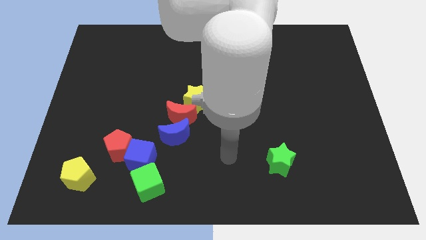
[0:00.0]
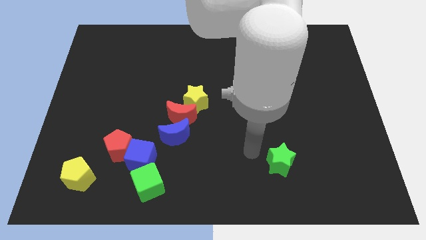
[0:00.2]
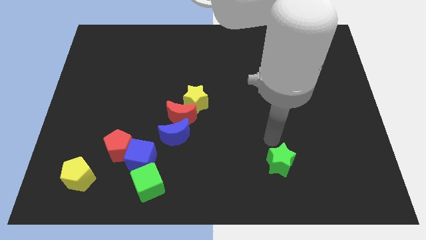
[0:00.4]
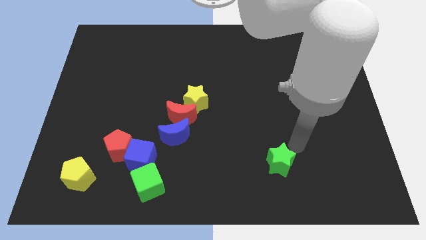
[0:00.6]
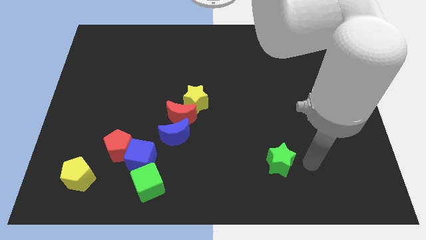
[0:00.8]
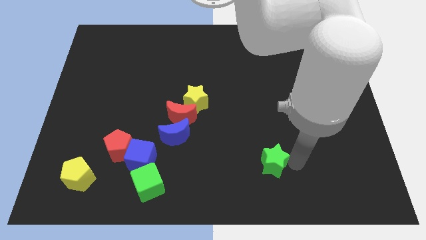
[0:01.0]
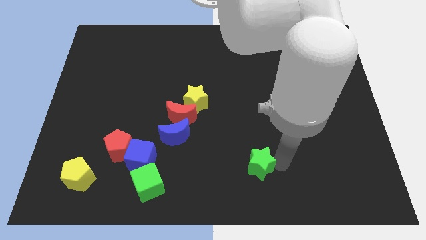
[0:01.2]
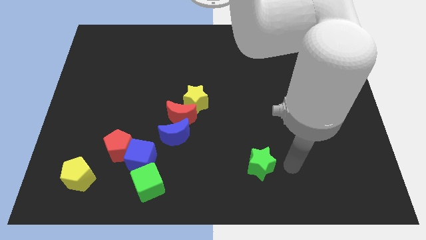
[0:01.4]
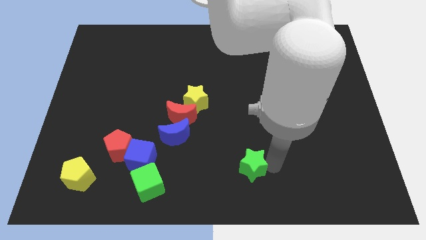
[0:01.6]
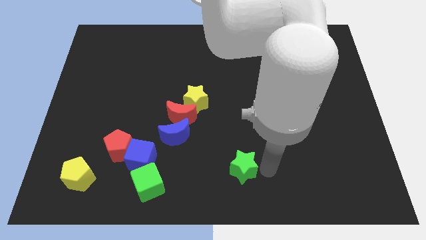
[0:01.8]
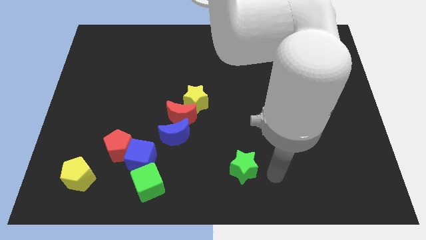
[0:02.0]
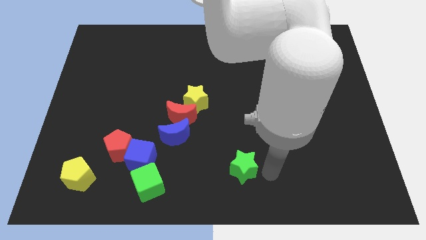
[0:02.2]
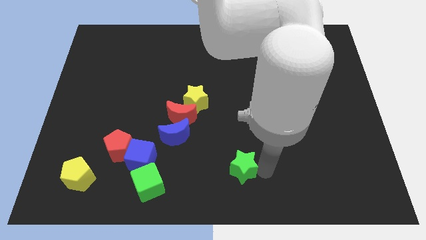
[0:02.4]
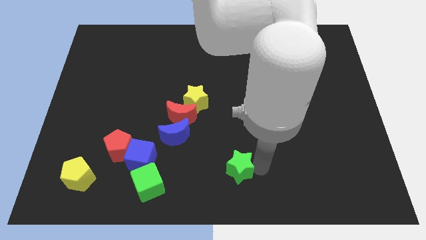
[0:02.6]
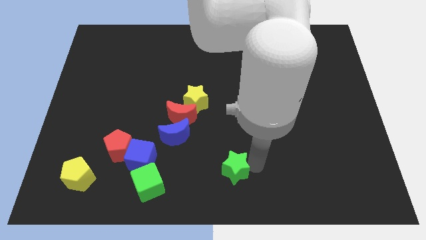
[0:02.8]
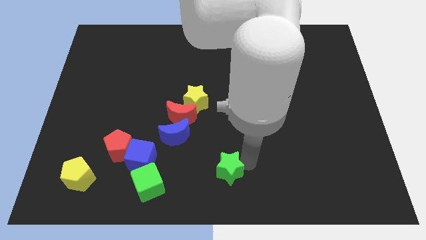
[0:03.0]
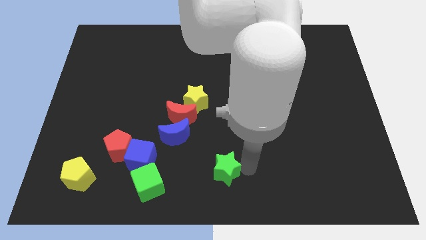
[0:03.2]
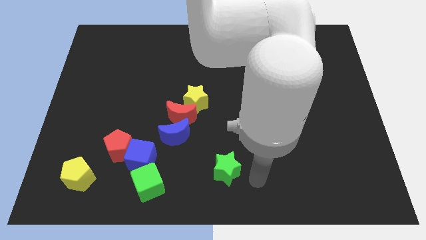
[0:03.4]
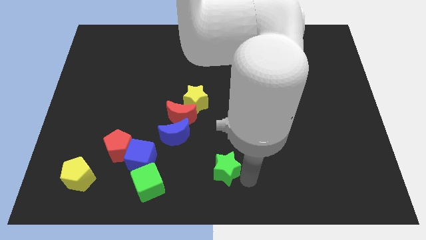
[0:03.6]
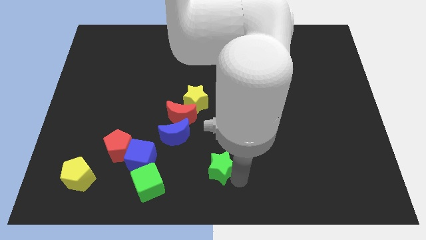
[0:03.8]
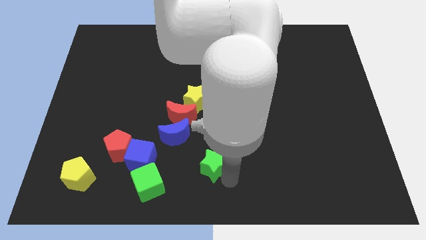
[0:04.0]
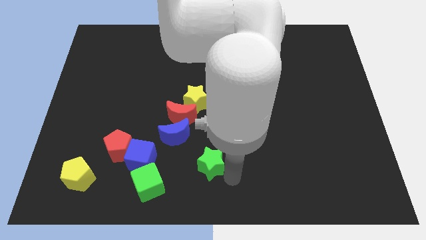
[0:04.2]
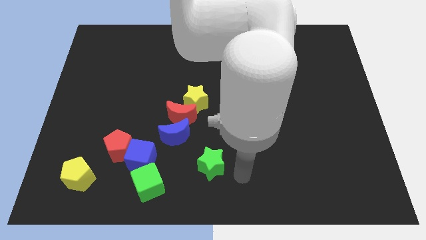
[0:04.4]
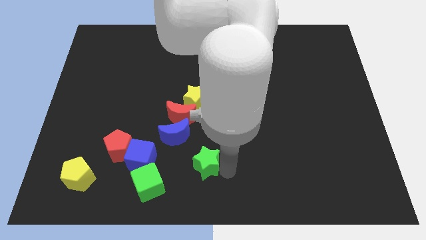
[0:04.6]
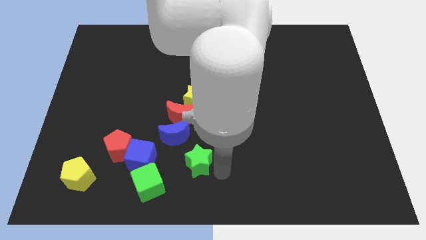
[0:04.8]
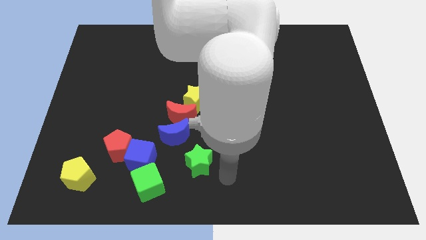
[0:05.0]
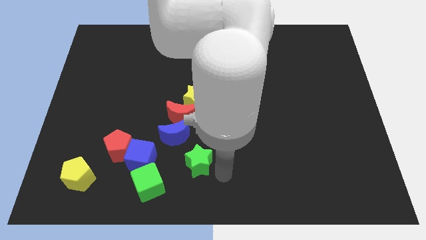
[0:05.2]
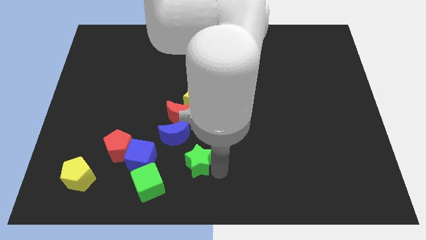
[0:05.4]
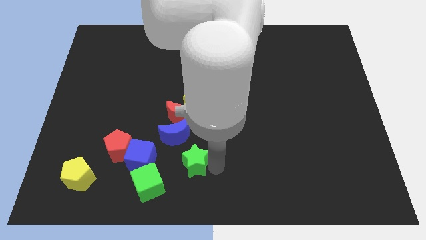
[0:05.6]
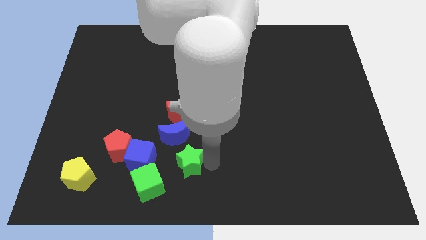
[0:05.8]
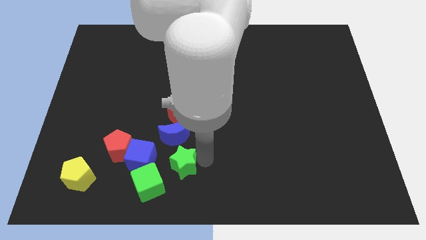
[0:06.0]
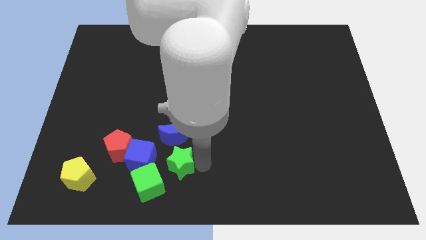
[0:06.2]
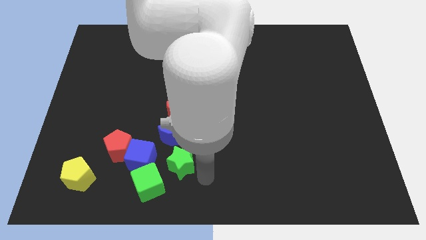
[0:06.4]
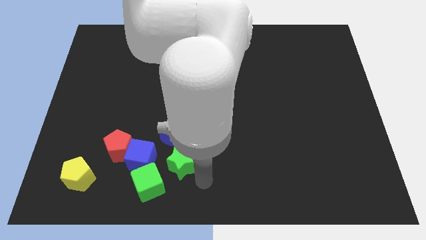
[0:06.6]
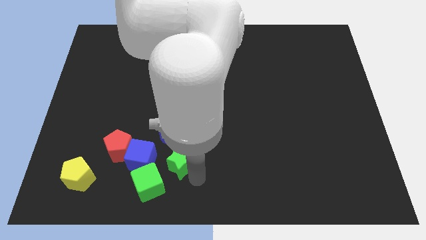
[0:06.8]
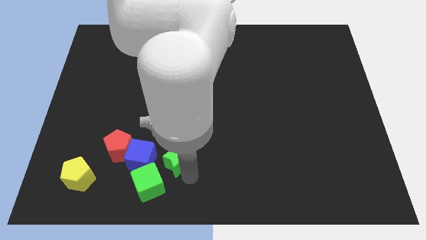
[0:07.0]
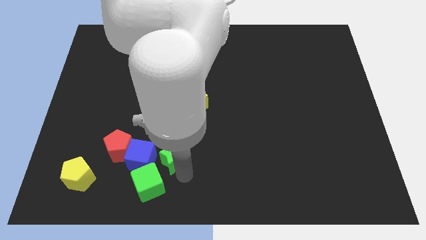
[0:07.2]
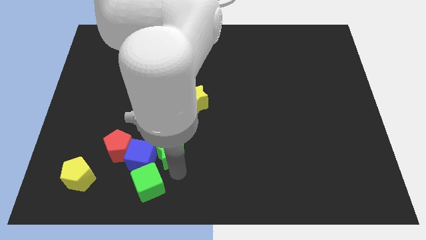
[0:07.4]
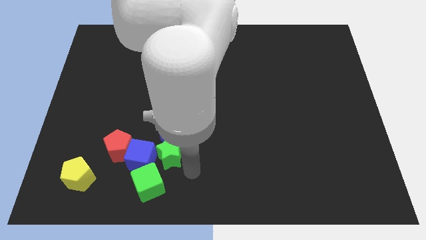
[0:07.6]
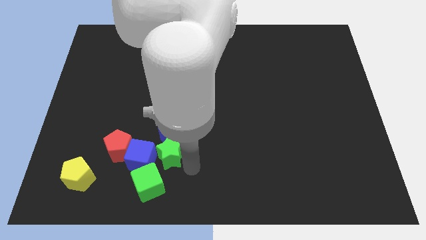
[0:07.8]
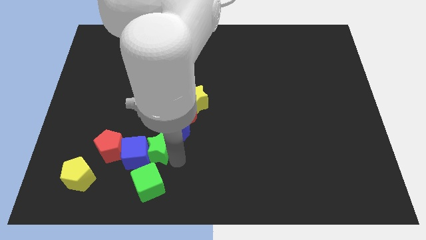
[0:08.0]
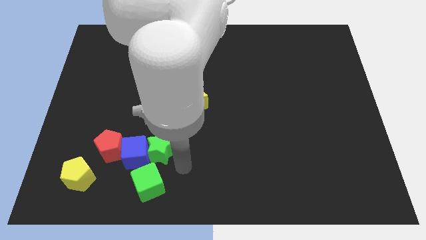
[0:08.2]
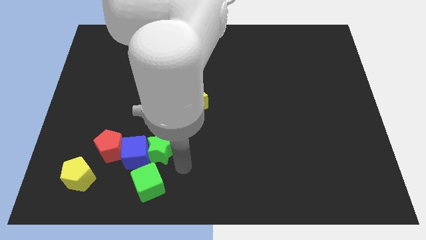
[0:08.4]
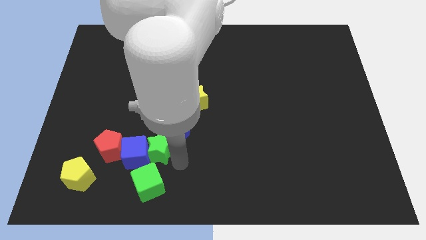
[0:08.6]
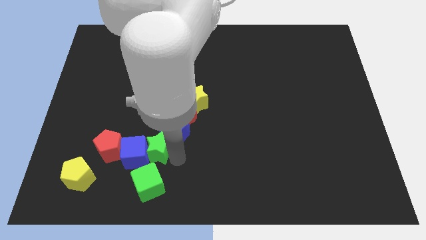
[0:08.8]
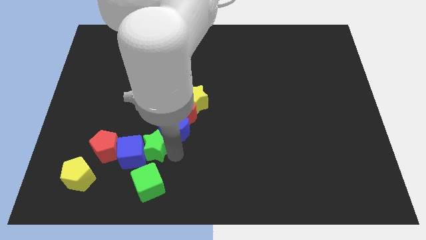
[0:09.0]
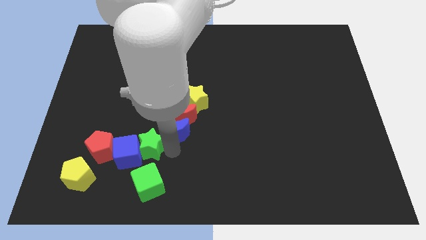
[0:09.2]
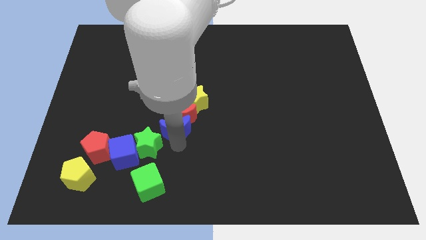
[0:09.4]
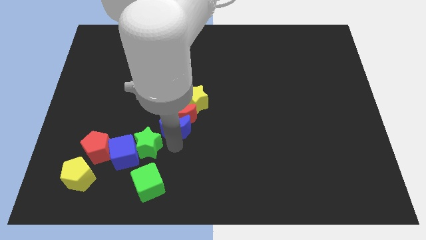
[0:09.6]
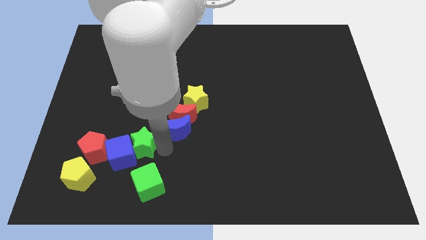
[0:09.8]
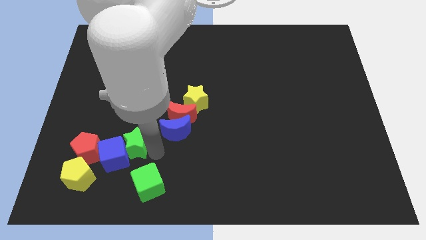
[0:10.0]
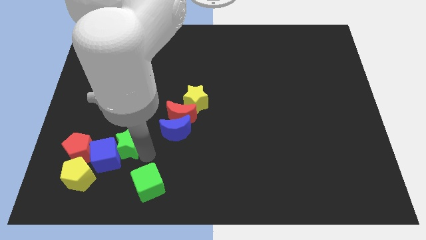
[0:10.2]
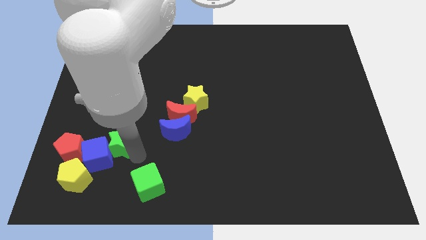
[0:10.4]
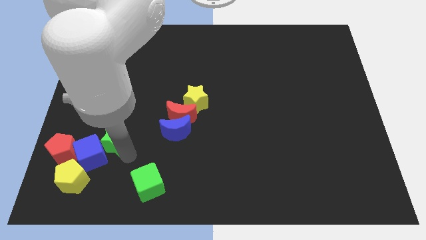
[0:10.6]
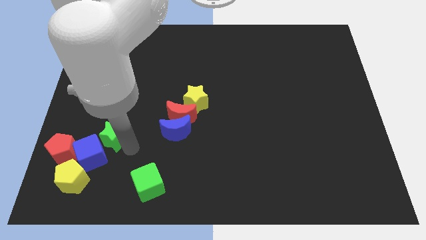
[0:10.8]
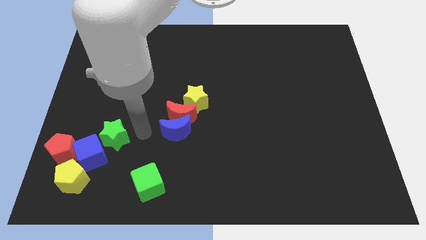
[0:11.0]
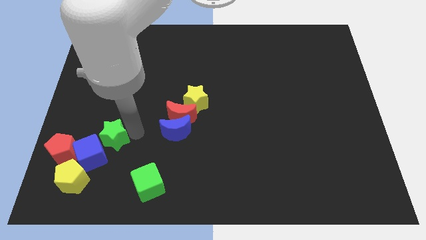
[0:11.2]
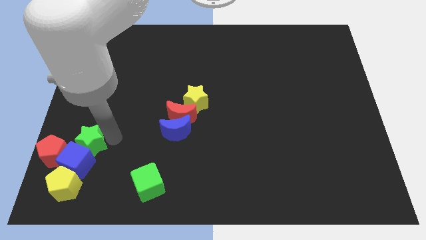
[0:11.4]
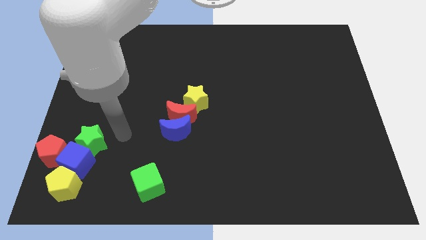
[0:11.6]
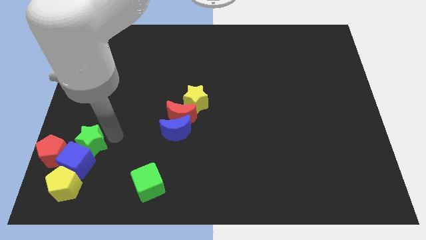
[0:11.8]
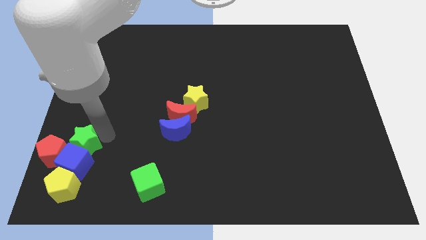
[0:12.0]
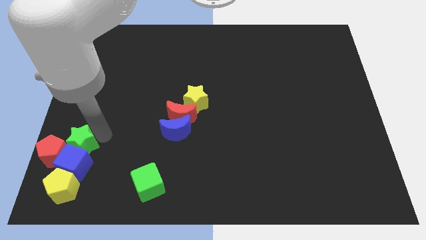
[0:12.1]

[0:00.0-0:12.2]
put the green star close to the red pentagon

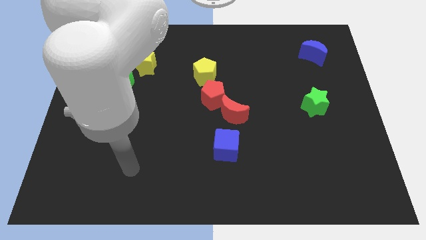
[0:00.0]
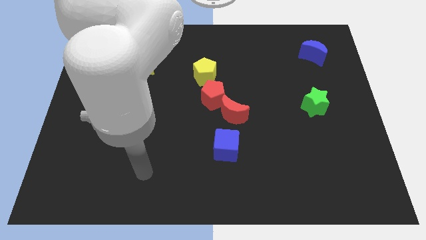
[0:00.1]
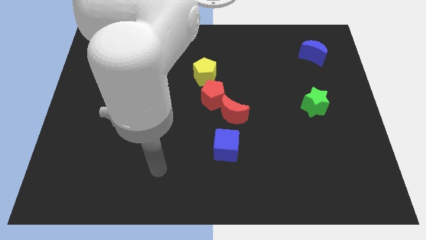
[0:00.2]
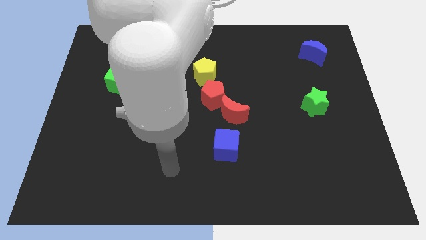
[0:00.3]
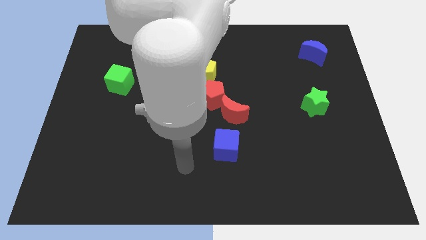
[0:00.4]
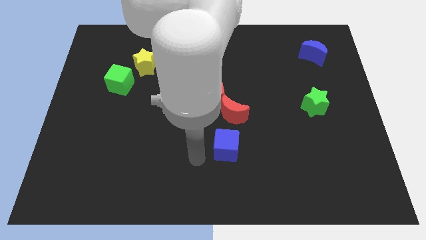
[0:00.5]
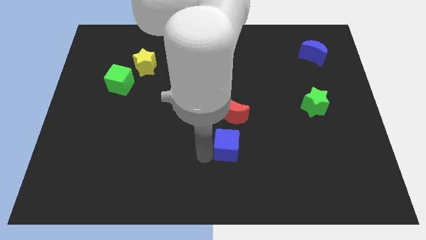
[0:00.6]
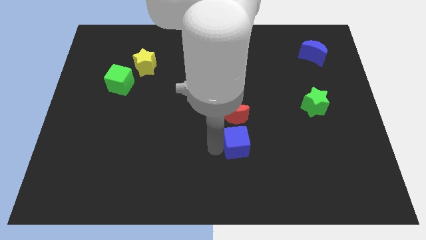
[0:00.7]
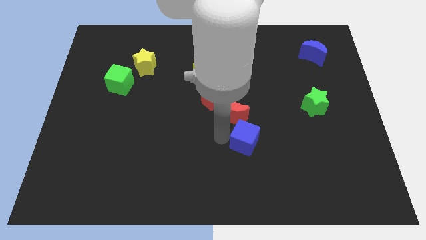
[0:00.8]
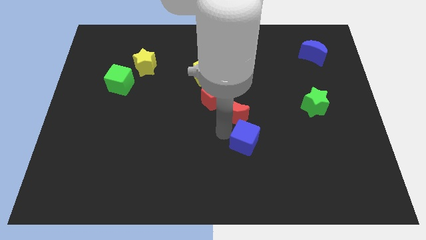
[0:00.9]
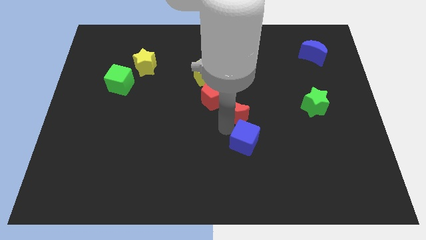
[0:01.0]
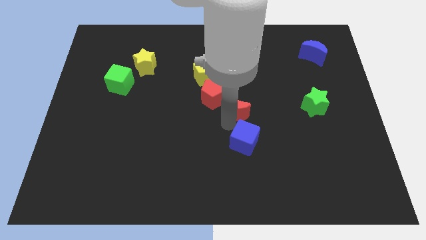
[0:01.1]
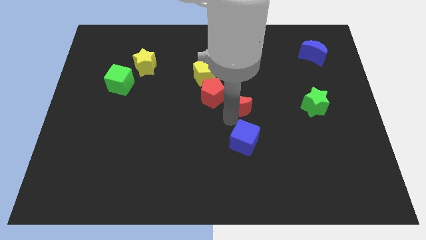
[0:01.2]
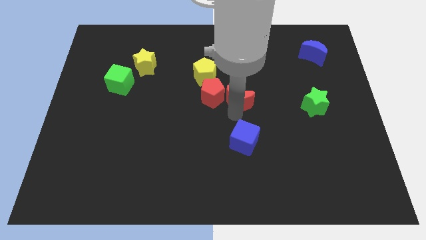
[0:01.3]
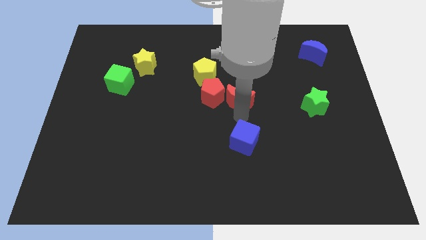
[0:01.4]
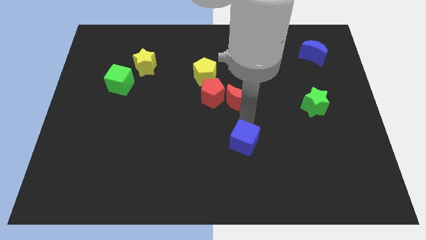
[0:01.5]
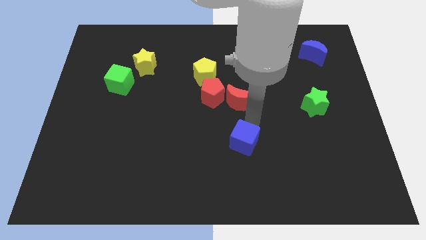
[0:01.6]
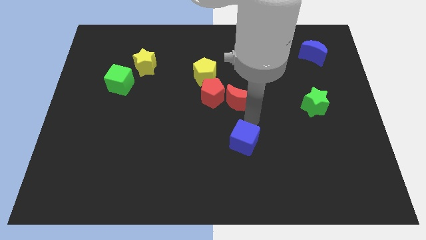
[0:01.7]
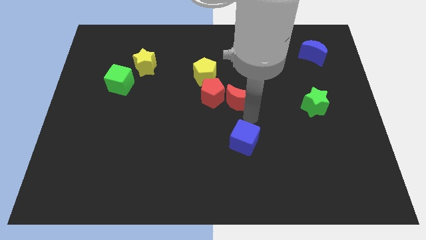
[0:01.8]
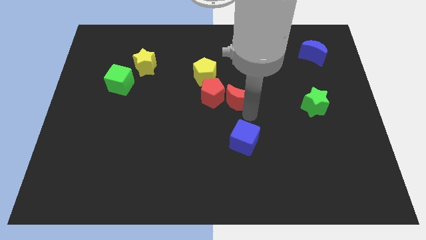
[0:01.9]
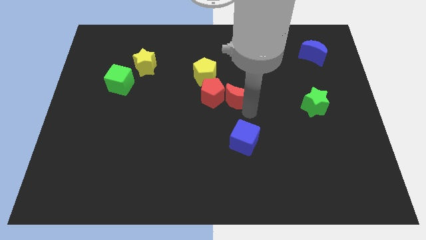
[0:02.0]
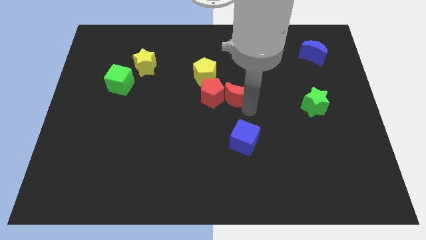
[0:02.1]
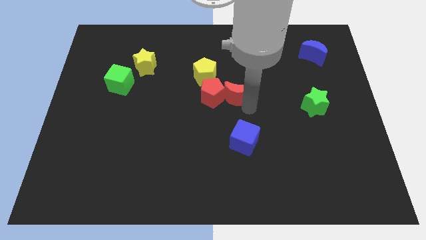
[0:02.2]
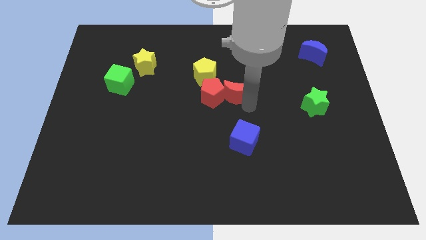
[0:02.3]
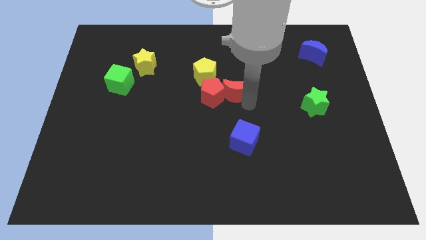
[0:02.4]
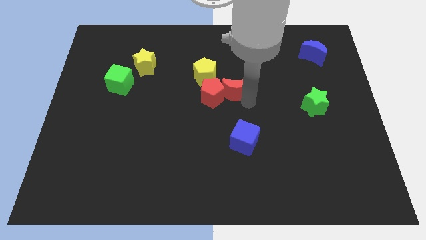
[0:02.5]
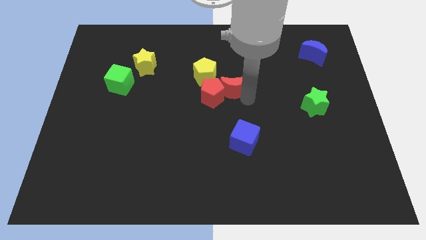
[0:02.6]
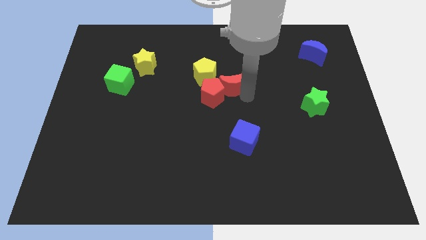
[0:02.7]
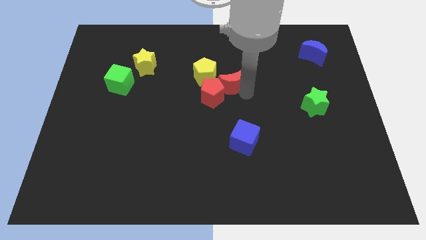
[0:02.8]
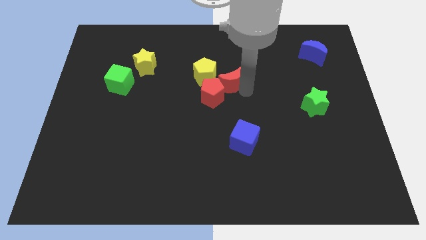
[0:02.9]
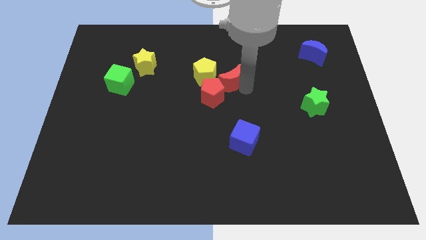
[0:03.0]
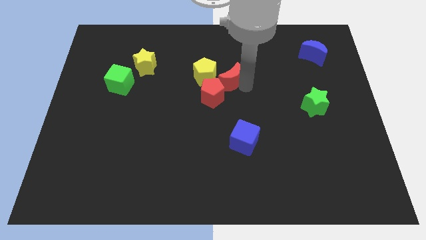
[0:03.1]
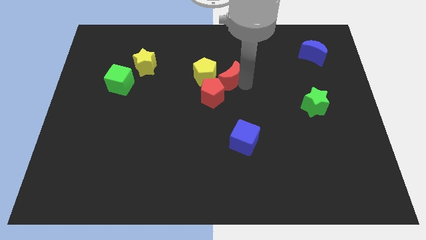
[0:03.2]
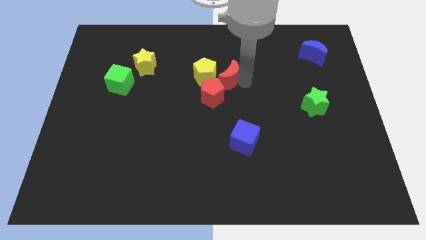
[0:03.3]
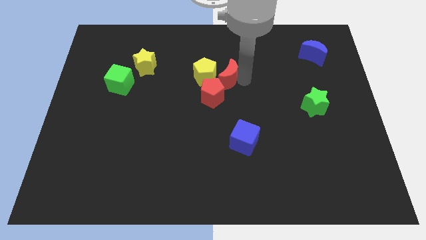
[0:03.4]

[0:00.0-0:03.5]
push the red moon next to the yellow pentagon
